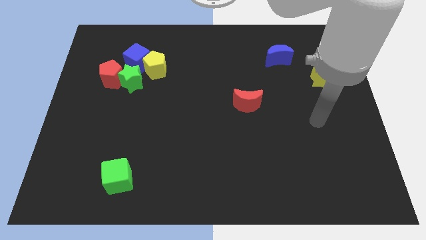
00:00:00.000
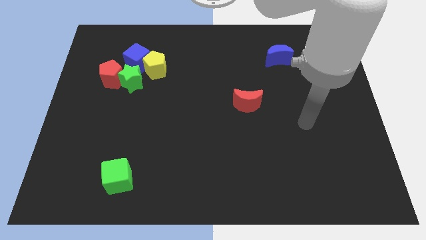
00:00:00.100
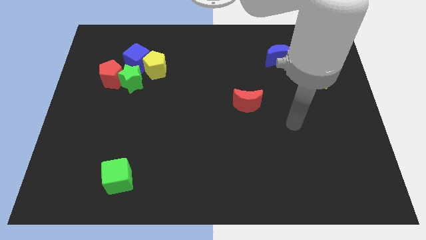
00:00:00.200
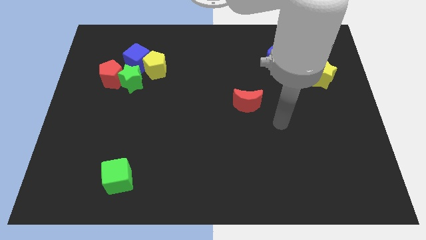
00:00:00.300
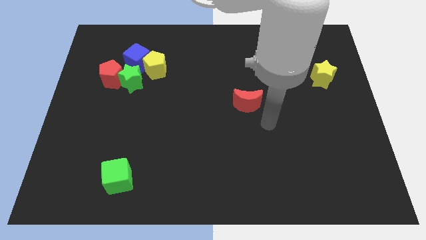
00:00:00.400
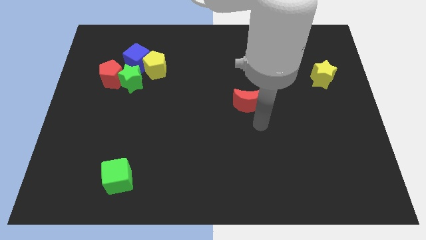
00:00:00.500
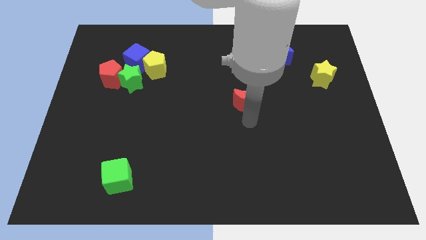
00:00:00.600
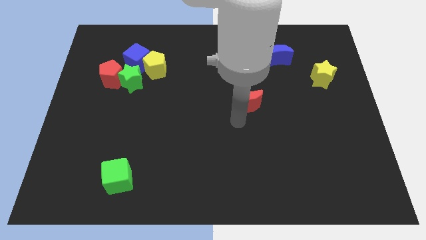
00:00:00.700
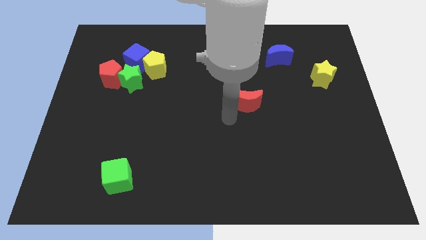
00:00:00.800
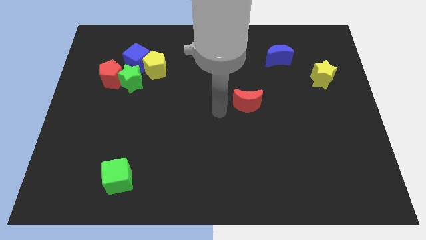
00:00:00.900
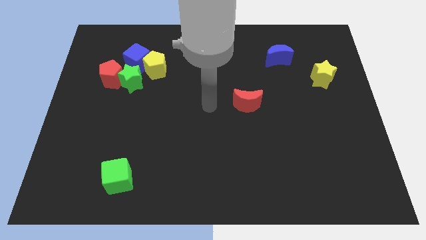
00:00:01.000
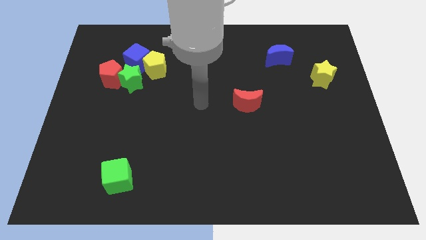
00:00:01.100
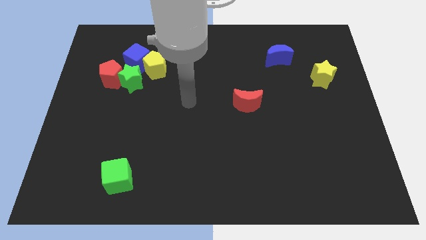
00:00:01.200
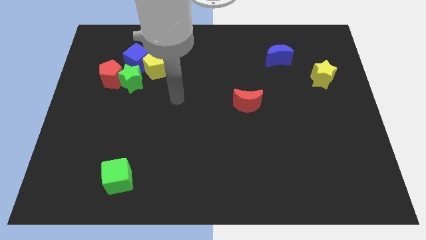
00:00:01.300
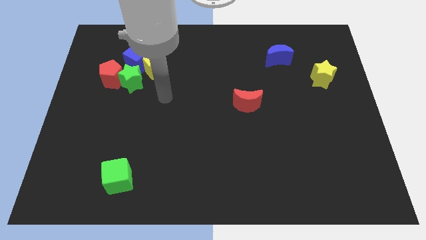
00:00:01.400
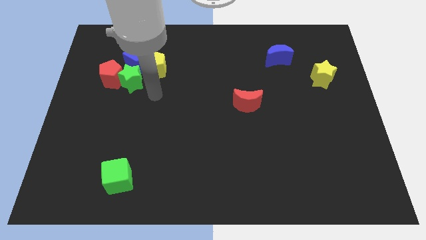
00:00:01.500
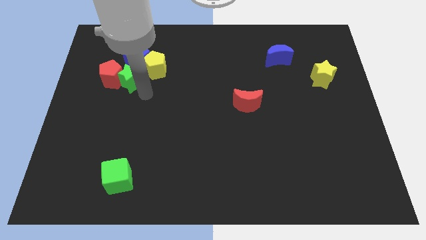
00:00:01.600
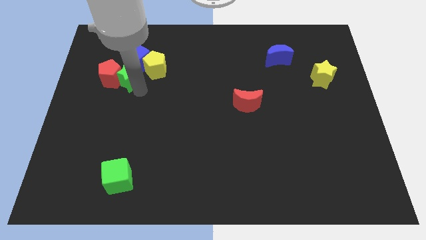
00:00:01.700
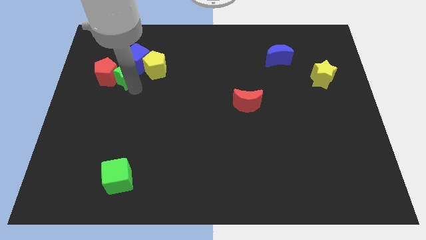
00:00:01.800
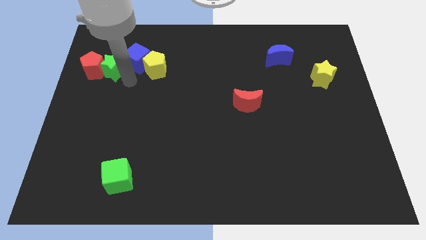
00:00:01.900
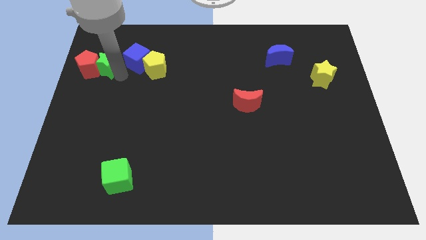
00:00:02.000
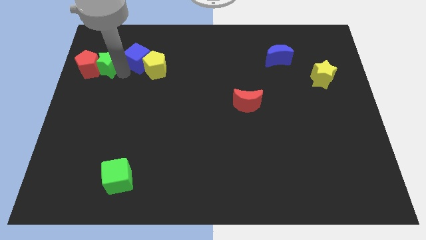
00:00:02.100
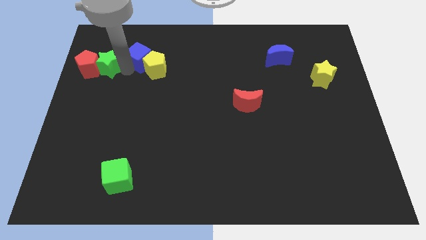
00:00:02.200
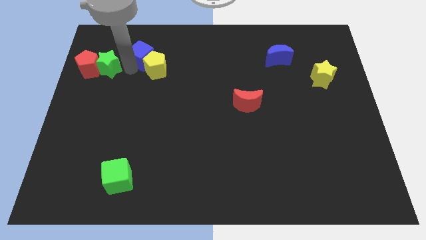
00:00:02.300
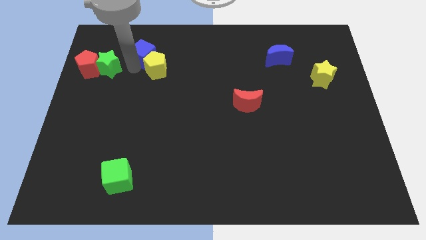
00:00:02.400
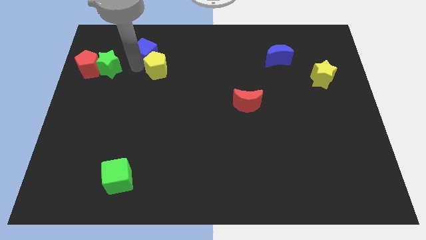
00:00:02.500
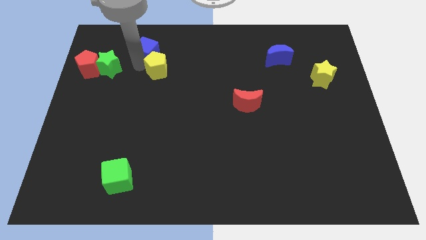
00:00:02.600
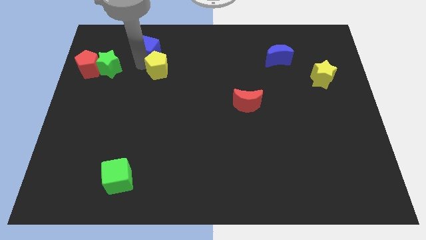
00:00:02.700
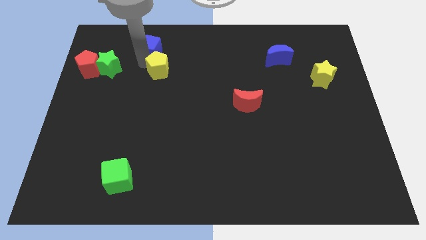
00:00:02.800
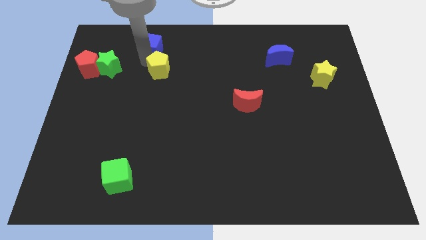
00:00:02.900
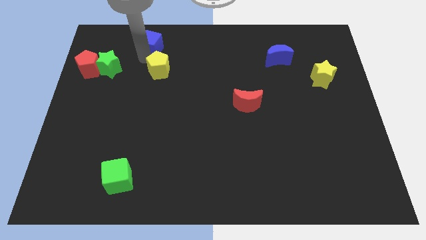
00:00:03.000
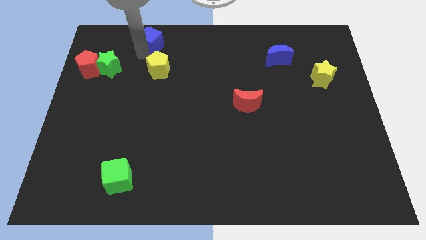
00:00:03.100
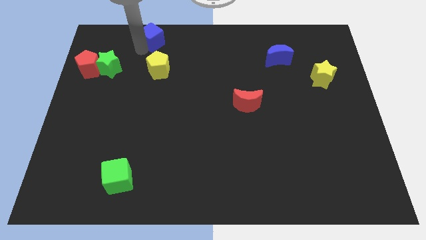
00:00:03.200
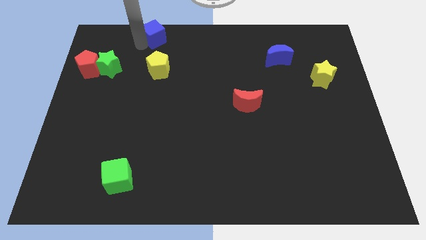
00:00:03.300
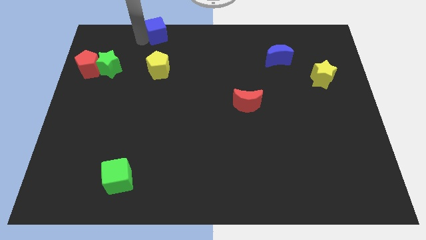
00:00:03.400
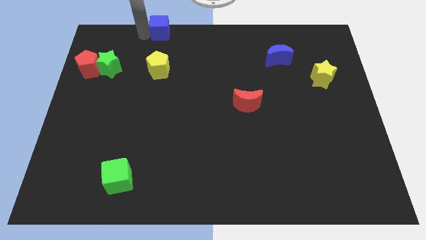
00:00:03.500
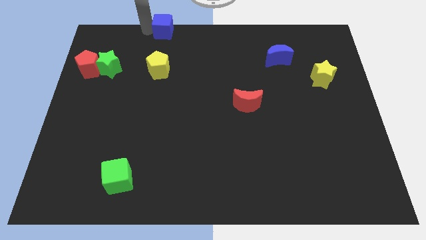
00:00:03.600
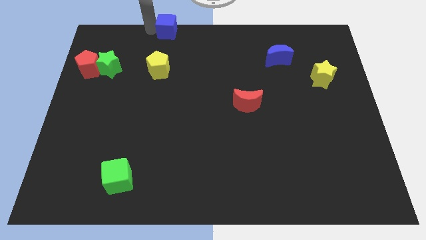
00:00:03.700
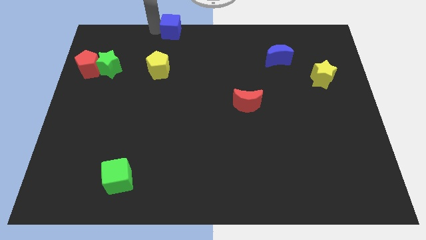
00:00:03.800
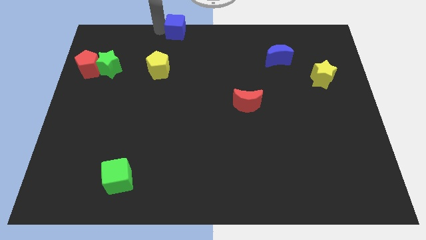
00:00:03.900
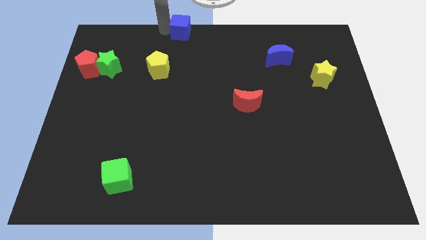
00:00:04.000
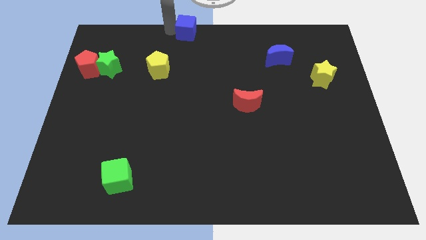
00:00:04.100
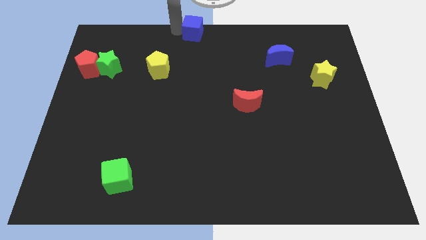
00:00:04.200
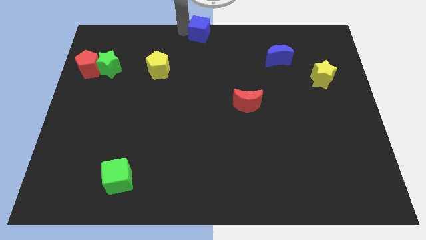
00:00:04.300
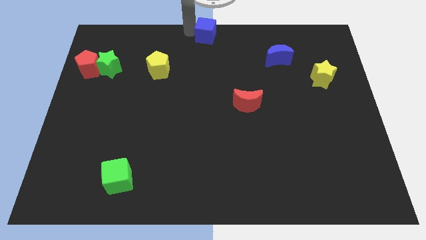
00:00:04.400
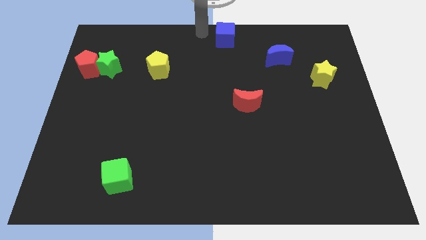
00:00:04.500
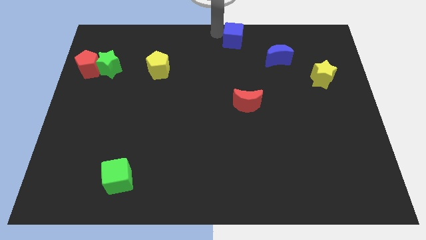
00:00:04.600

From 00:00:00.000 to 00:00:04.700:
push the blue cube to the right

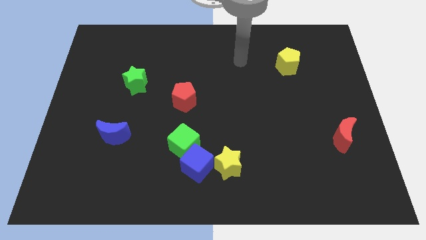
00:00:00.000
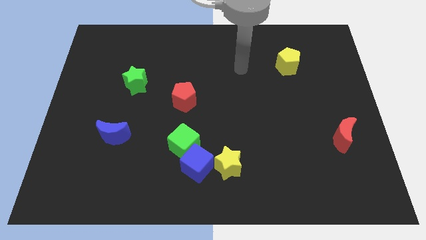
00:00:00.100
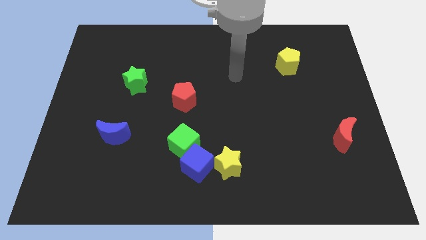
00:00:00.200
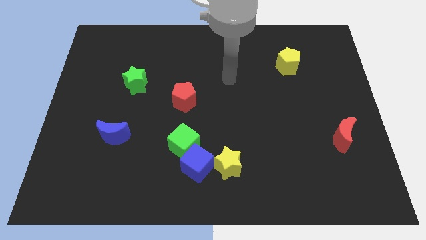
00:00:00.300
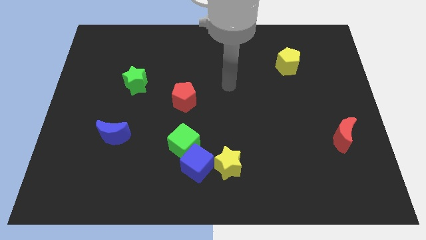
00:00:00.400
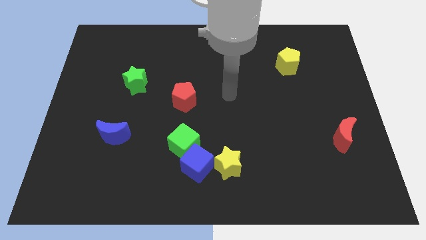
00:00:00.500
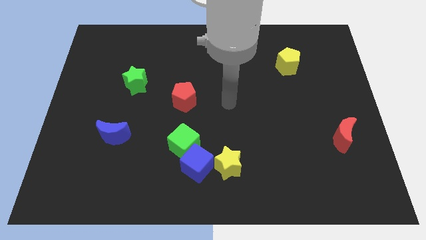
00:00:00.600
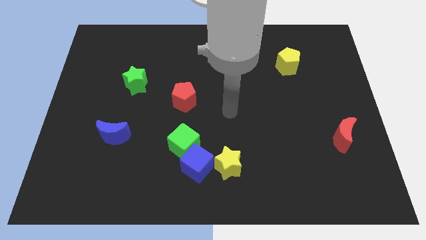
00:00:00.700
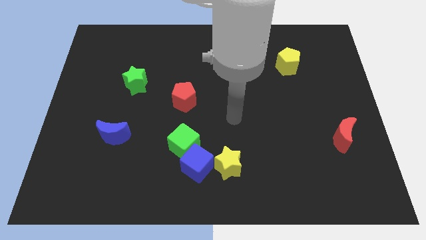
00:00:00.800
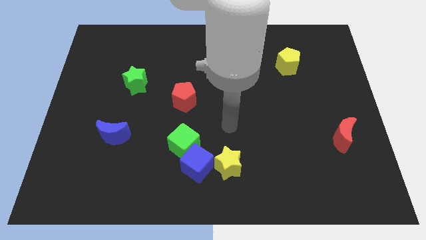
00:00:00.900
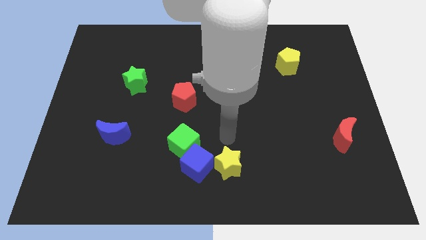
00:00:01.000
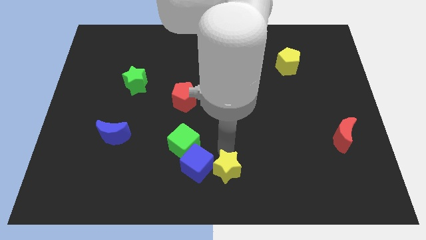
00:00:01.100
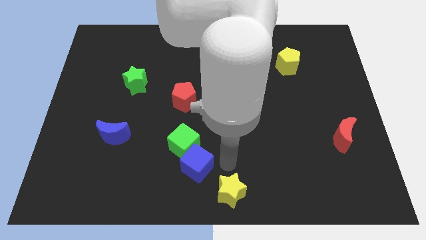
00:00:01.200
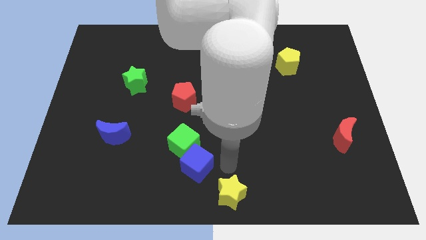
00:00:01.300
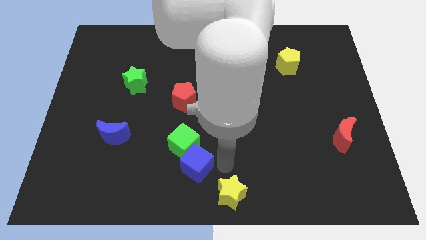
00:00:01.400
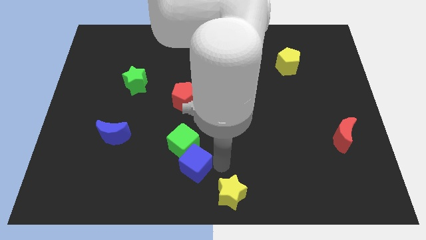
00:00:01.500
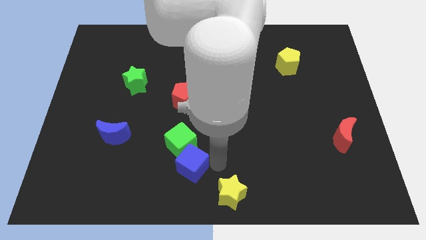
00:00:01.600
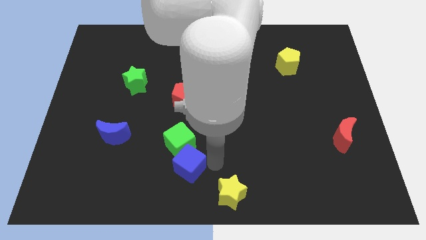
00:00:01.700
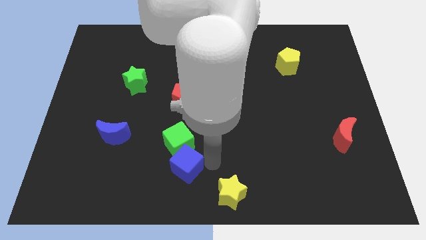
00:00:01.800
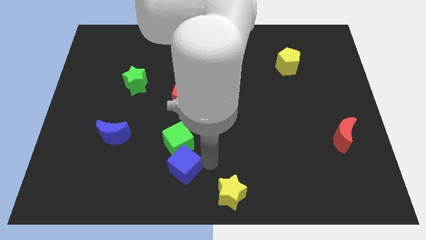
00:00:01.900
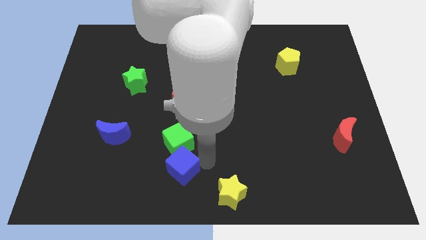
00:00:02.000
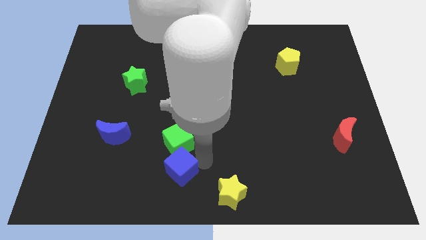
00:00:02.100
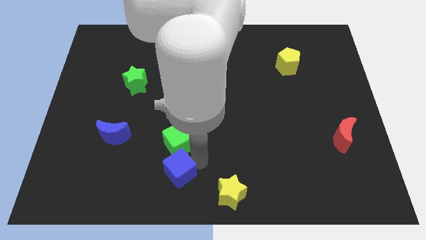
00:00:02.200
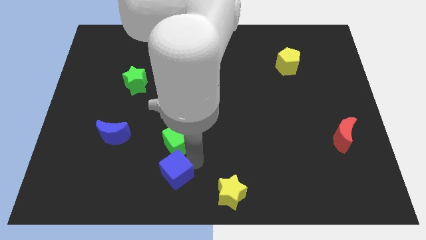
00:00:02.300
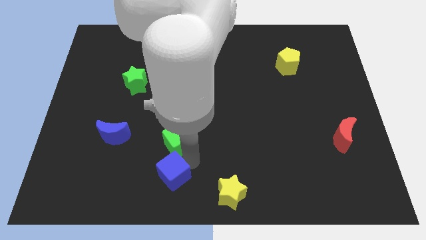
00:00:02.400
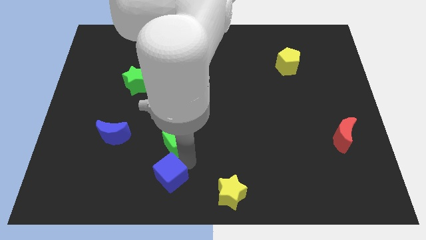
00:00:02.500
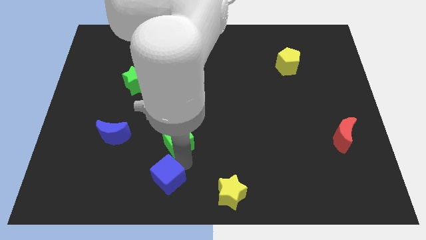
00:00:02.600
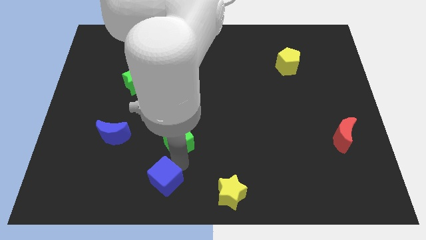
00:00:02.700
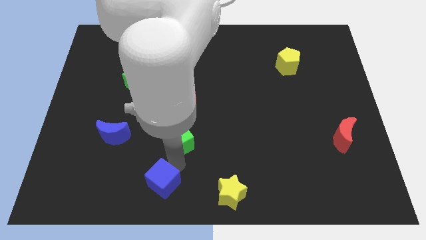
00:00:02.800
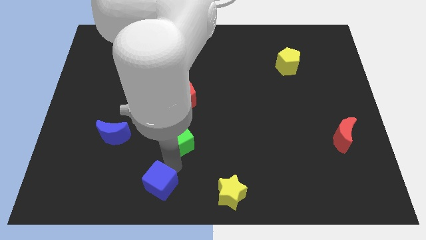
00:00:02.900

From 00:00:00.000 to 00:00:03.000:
slightly slide the blue cube left

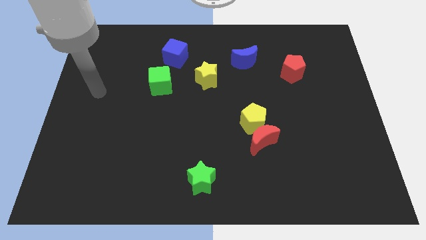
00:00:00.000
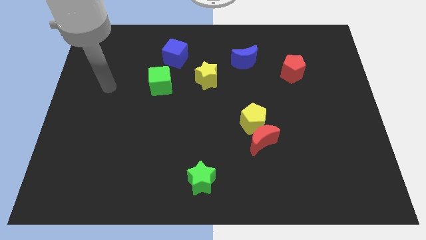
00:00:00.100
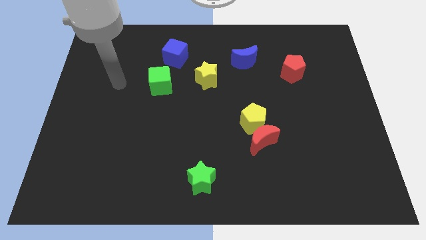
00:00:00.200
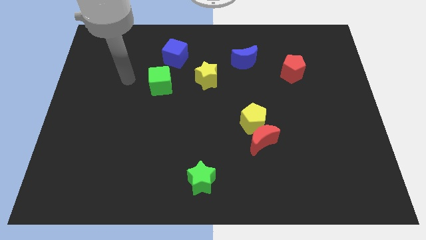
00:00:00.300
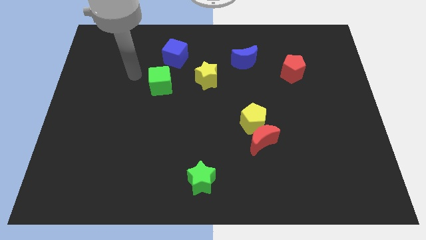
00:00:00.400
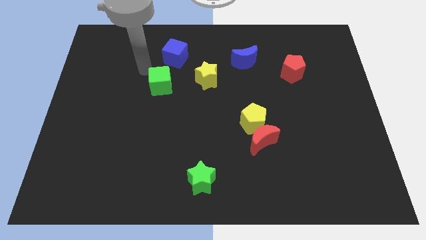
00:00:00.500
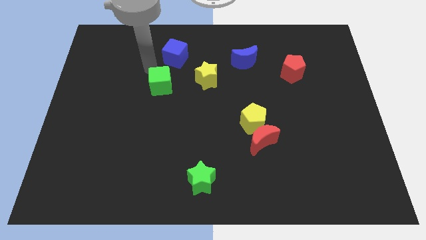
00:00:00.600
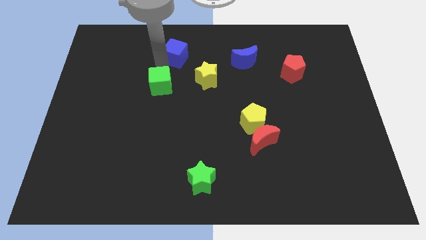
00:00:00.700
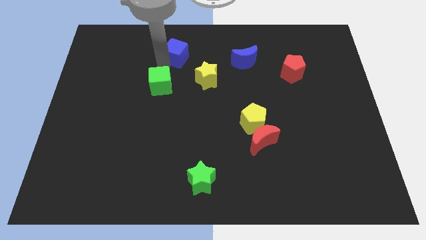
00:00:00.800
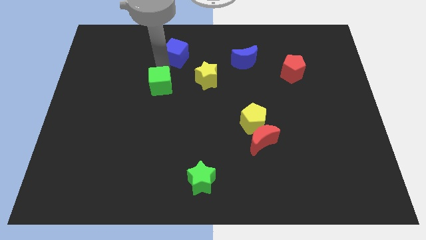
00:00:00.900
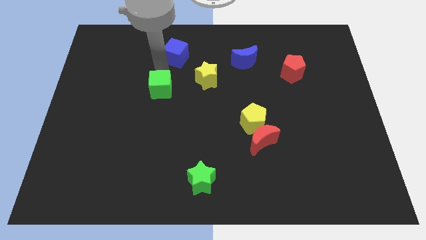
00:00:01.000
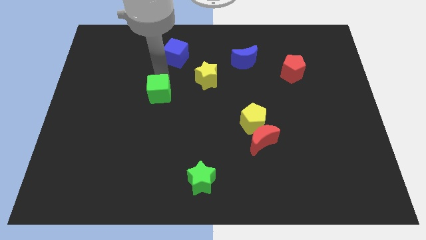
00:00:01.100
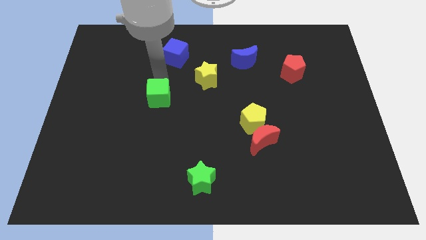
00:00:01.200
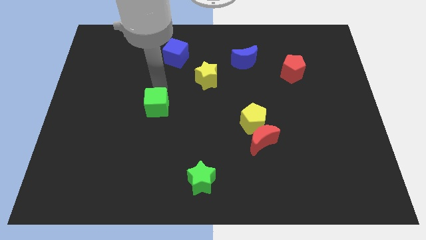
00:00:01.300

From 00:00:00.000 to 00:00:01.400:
slightly move the green cube down
